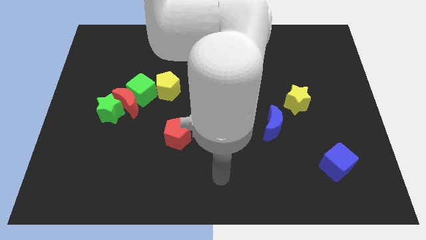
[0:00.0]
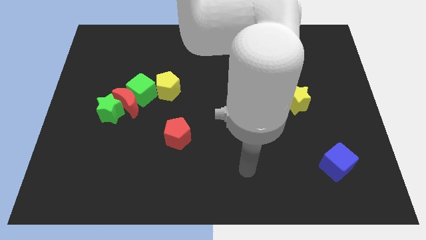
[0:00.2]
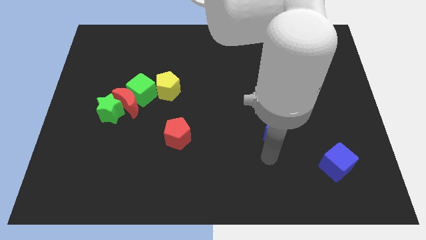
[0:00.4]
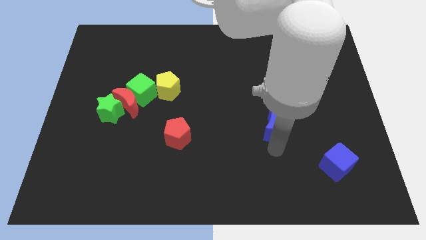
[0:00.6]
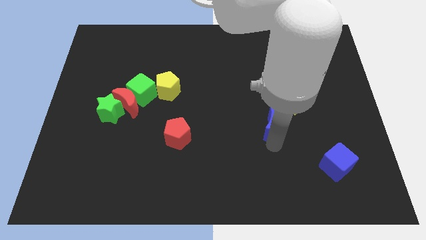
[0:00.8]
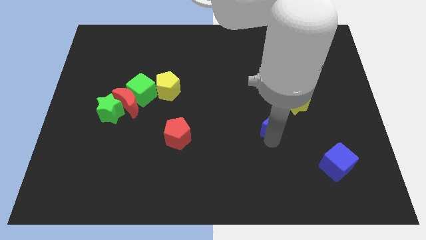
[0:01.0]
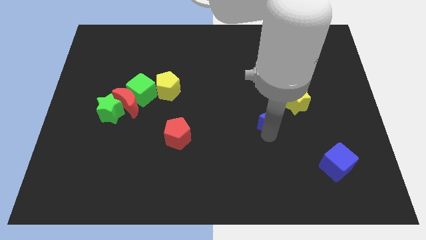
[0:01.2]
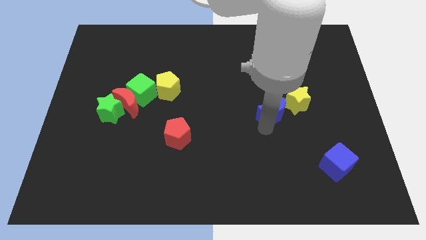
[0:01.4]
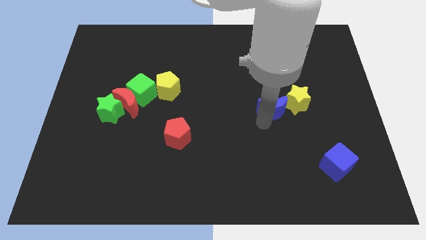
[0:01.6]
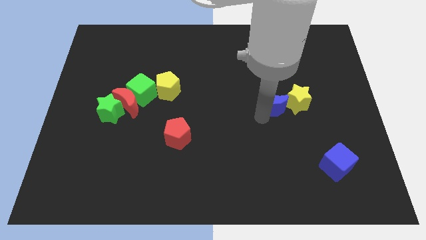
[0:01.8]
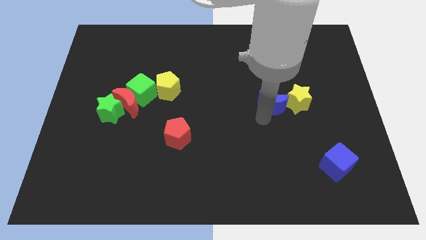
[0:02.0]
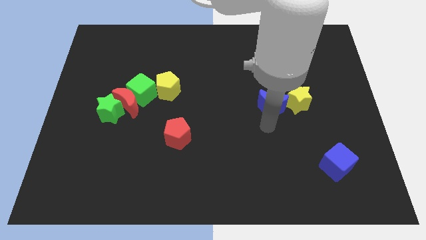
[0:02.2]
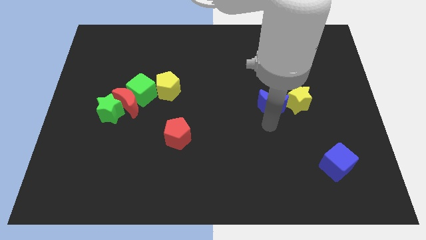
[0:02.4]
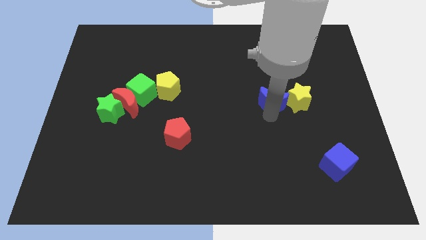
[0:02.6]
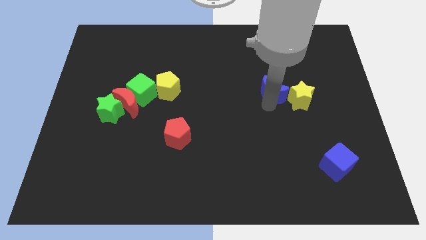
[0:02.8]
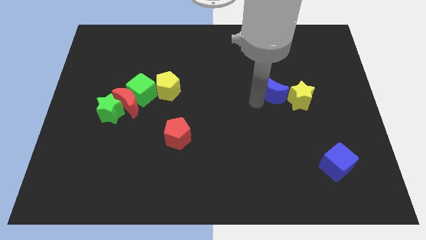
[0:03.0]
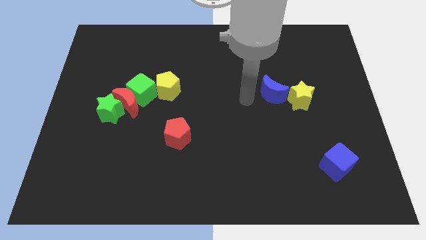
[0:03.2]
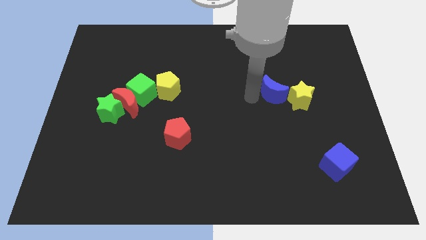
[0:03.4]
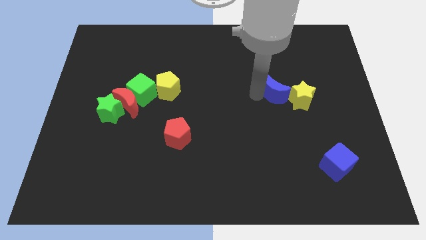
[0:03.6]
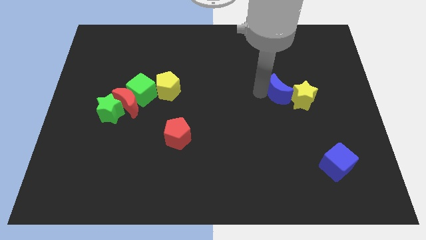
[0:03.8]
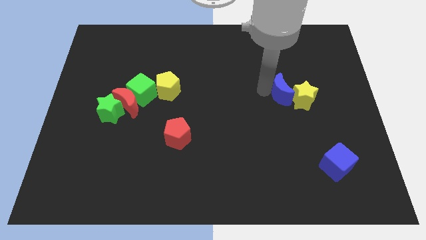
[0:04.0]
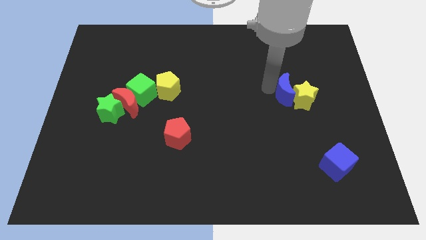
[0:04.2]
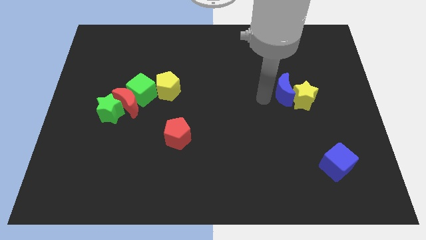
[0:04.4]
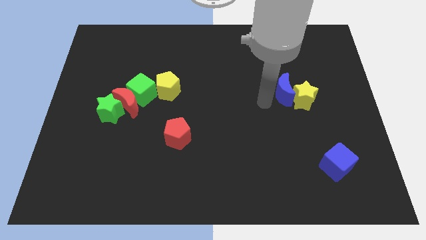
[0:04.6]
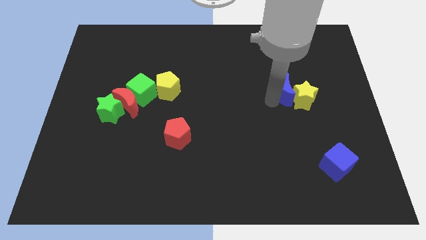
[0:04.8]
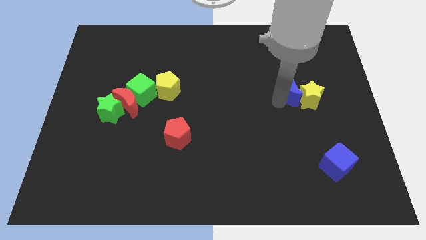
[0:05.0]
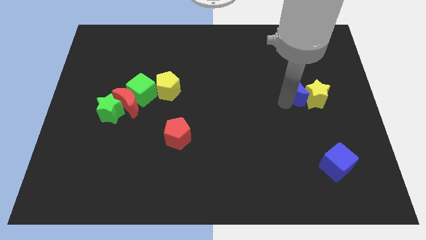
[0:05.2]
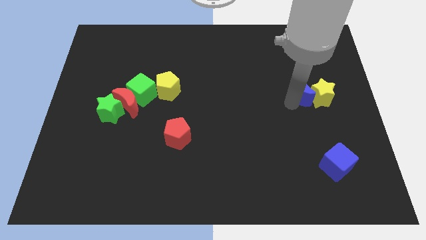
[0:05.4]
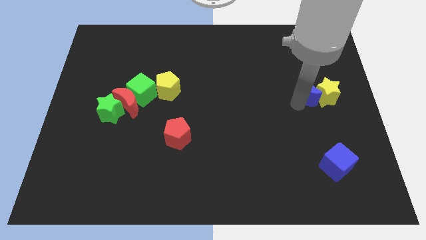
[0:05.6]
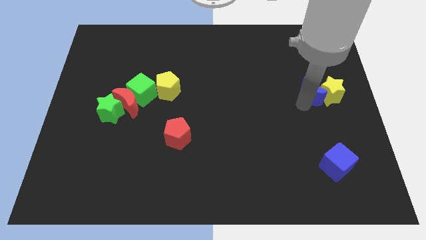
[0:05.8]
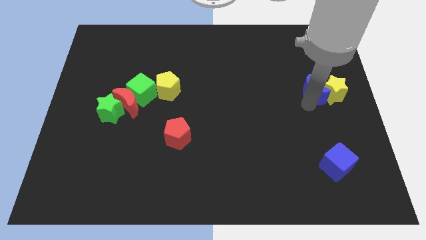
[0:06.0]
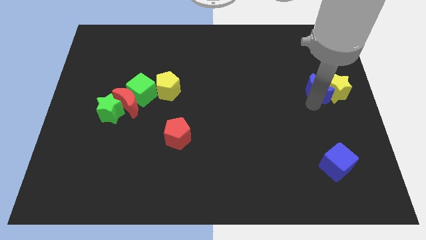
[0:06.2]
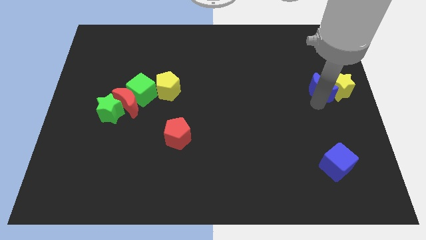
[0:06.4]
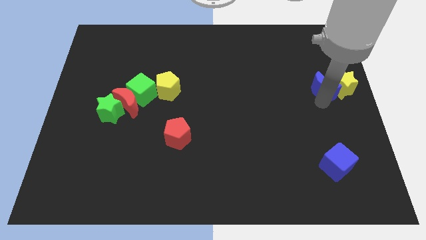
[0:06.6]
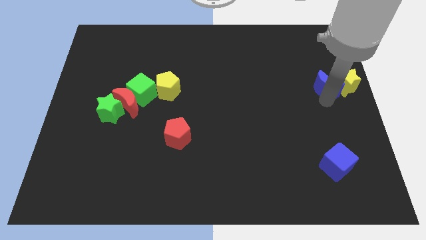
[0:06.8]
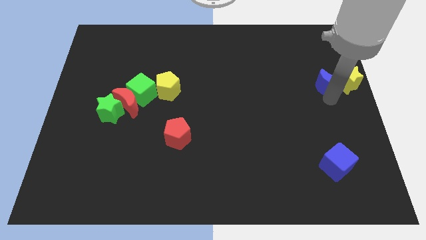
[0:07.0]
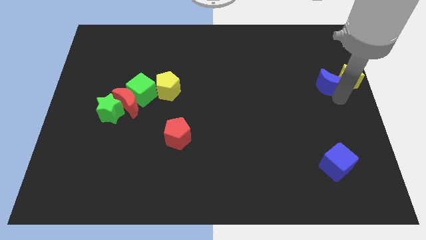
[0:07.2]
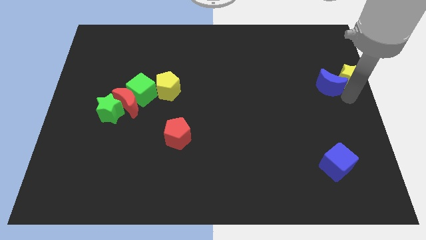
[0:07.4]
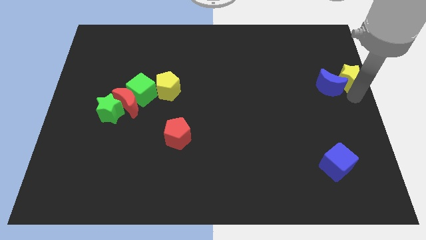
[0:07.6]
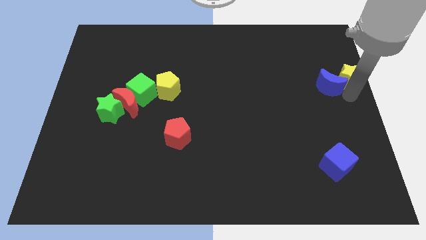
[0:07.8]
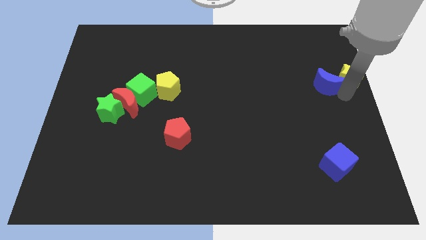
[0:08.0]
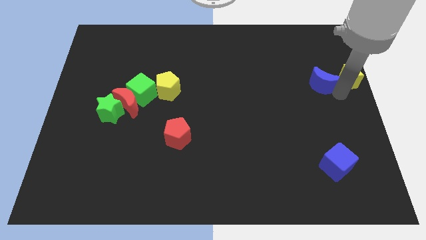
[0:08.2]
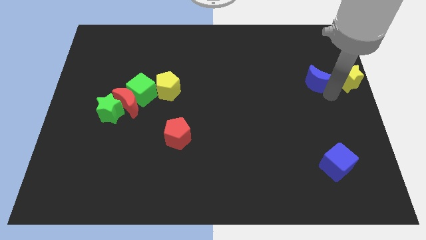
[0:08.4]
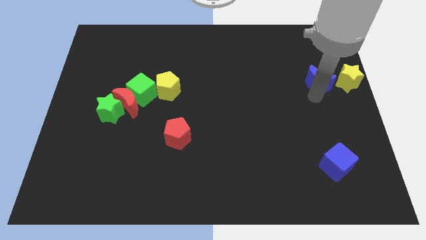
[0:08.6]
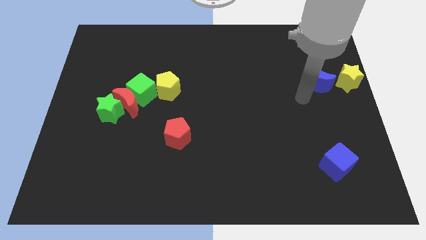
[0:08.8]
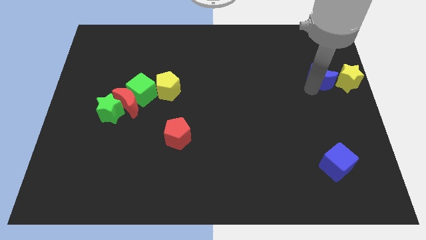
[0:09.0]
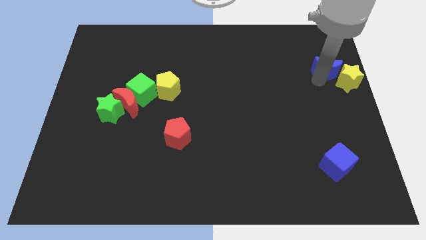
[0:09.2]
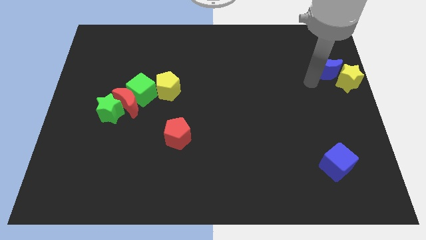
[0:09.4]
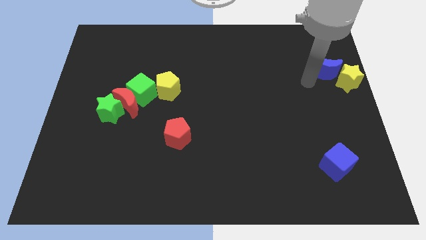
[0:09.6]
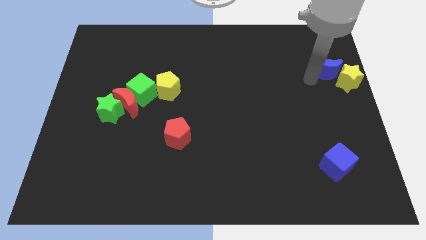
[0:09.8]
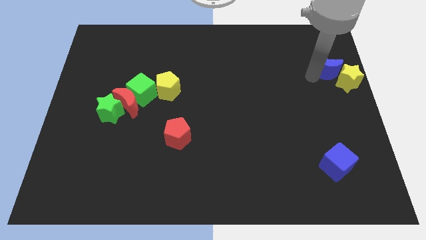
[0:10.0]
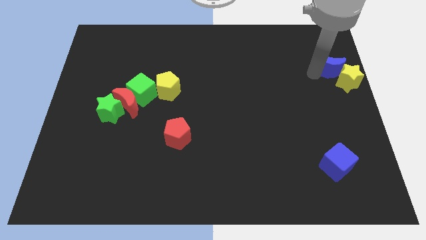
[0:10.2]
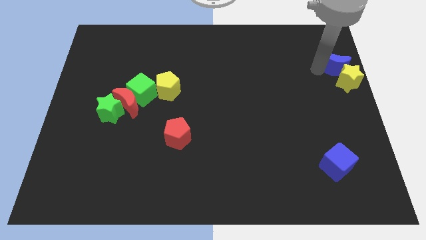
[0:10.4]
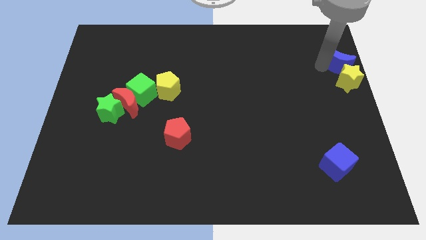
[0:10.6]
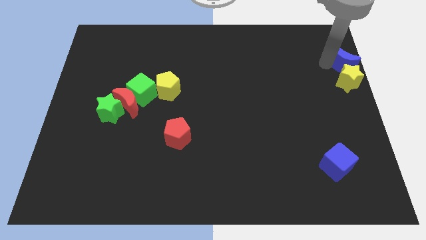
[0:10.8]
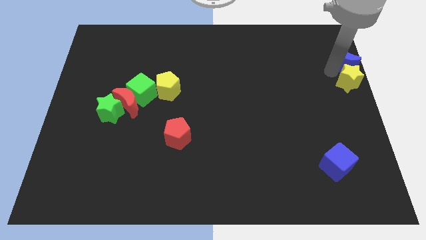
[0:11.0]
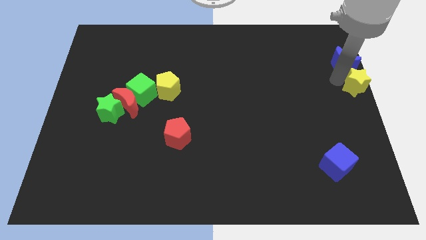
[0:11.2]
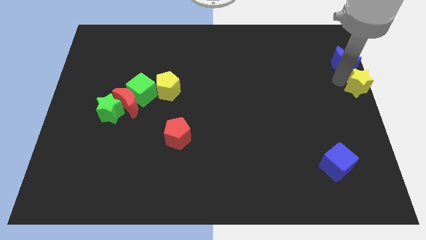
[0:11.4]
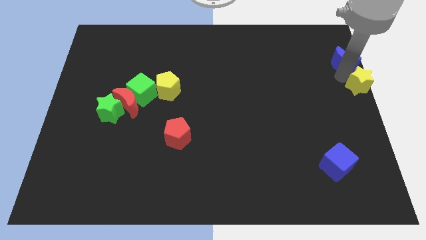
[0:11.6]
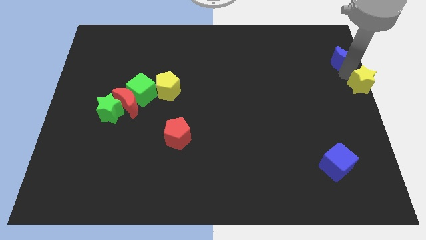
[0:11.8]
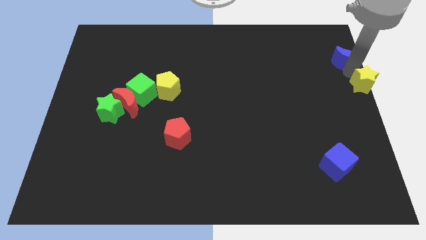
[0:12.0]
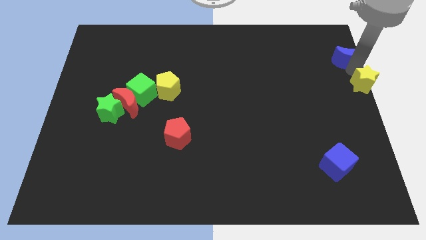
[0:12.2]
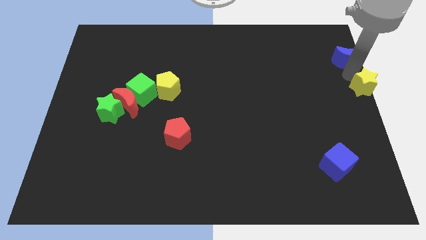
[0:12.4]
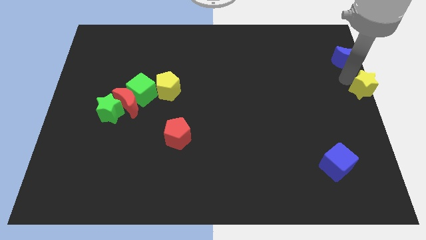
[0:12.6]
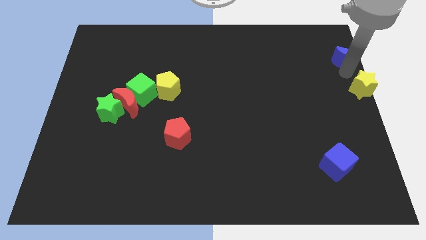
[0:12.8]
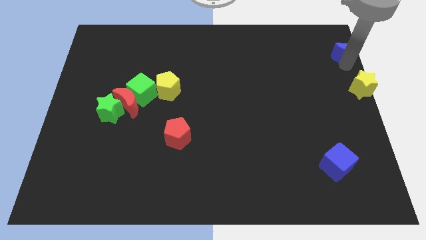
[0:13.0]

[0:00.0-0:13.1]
move the blue moon to the upper right corner
